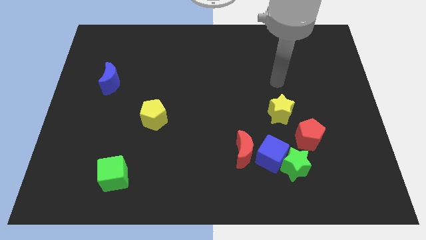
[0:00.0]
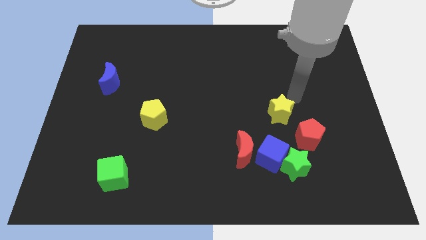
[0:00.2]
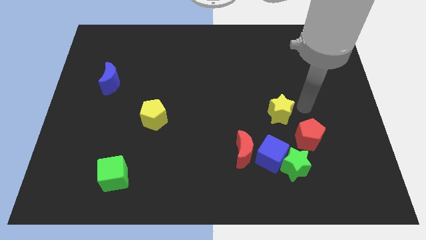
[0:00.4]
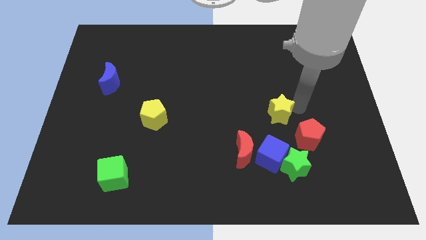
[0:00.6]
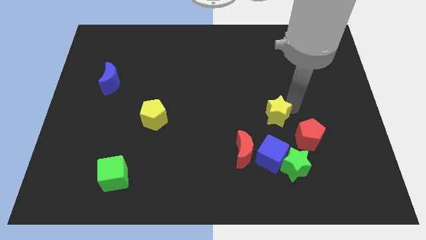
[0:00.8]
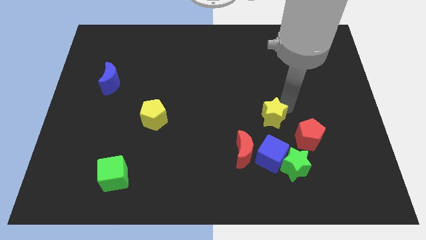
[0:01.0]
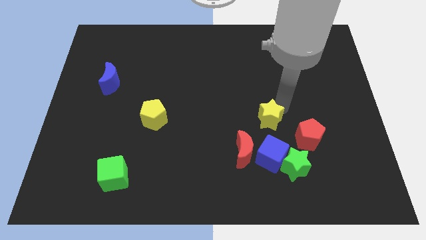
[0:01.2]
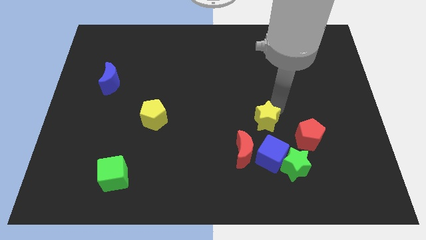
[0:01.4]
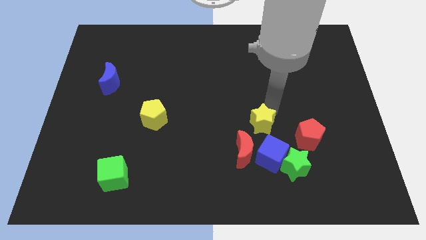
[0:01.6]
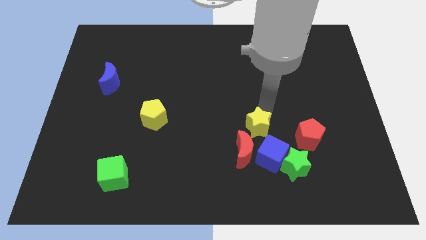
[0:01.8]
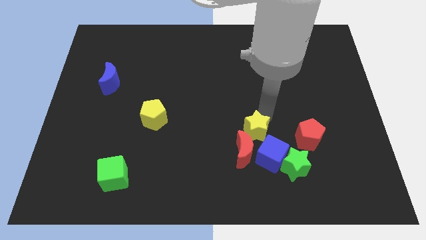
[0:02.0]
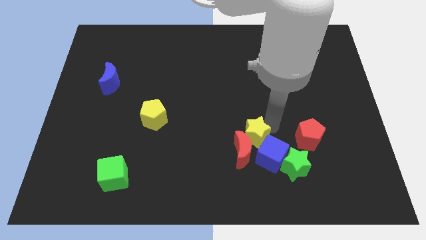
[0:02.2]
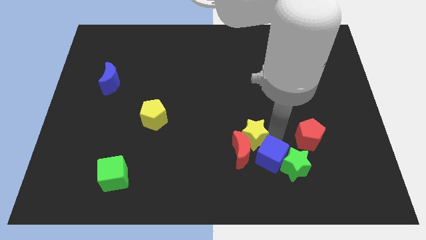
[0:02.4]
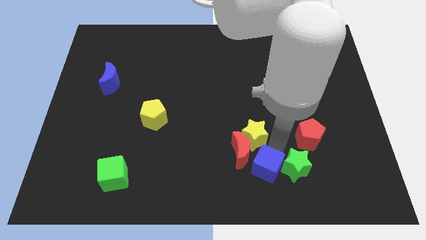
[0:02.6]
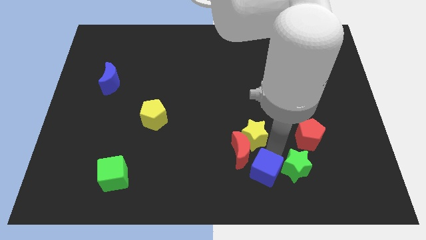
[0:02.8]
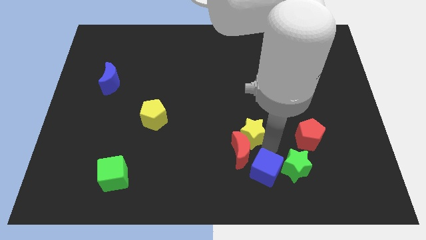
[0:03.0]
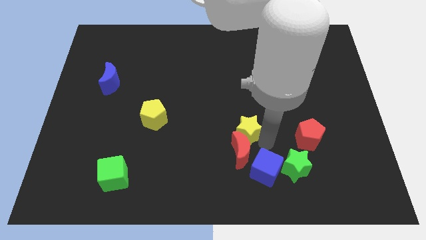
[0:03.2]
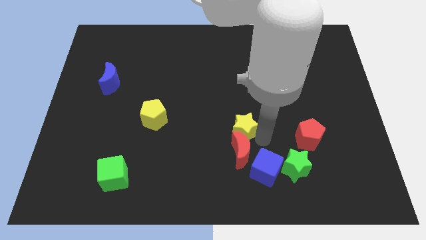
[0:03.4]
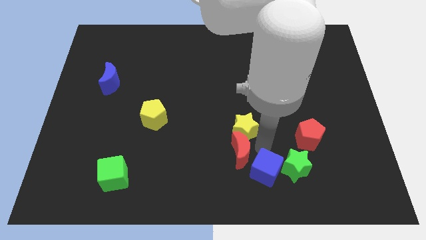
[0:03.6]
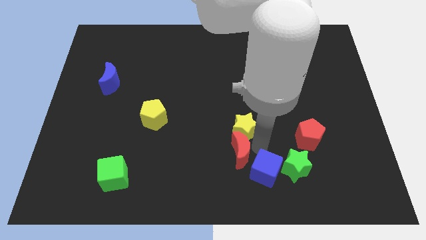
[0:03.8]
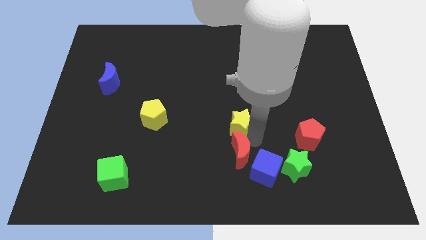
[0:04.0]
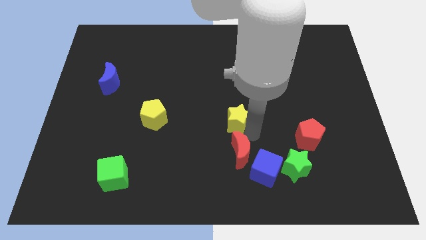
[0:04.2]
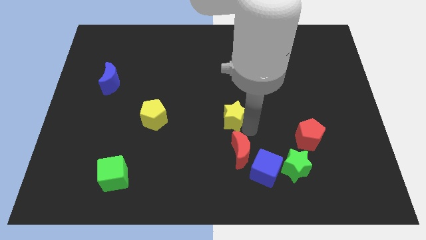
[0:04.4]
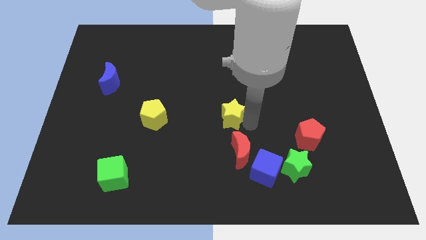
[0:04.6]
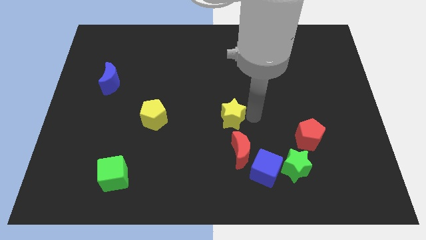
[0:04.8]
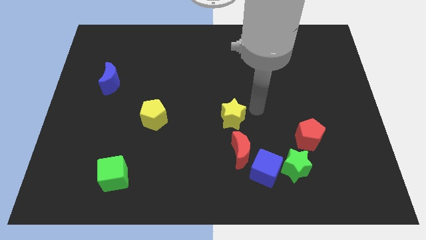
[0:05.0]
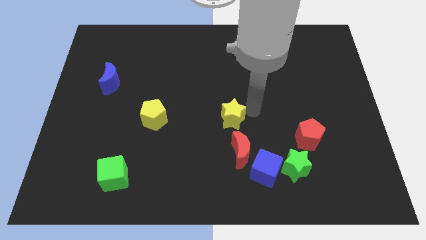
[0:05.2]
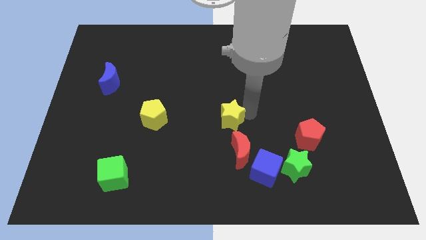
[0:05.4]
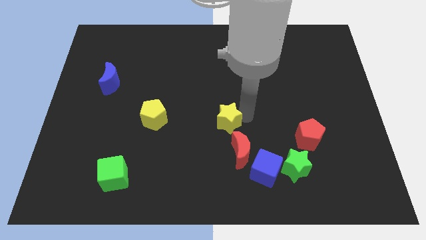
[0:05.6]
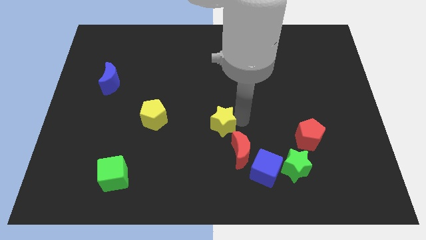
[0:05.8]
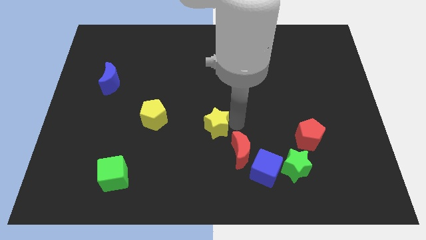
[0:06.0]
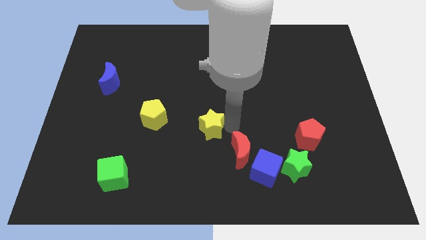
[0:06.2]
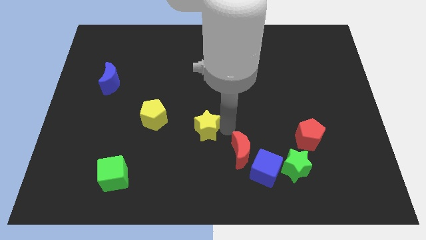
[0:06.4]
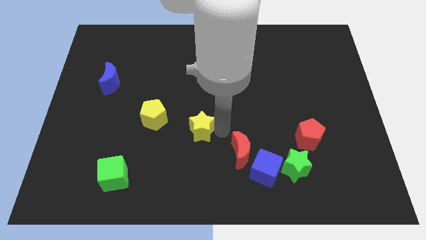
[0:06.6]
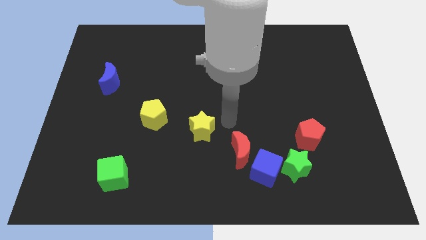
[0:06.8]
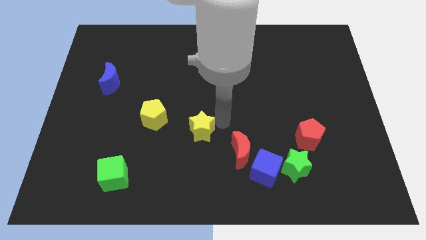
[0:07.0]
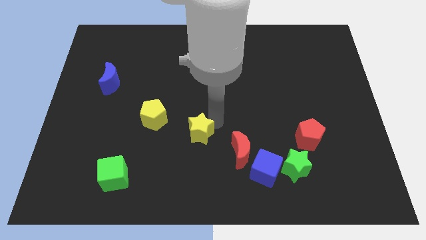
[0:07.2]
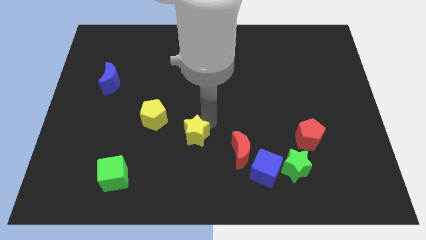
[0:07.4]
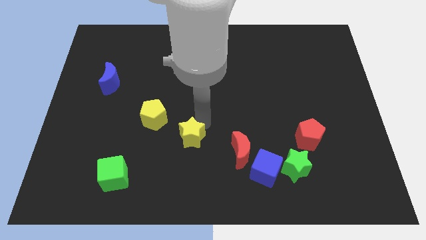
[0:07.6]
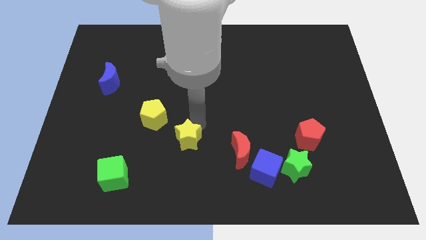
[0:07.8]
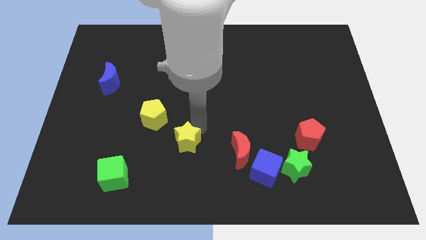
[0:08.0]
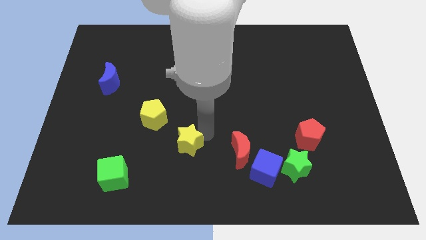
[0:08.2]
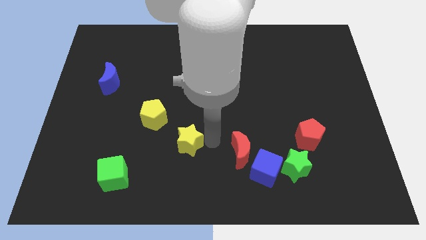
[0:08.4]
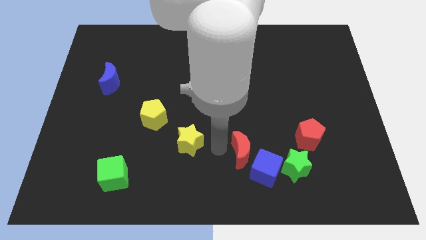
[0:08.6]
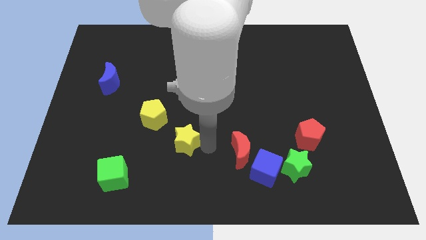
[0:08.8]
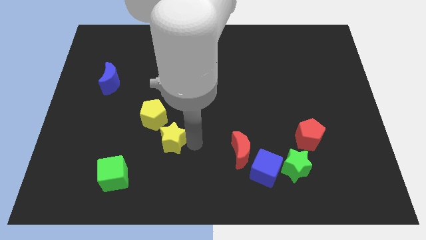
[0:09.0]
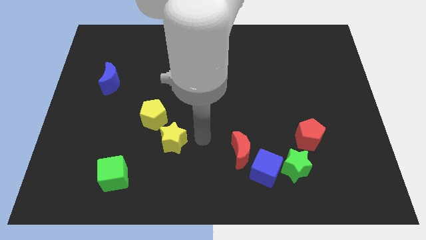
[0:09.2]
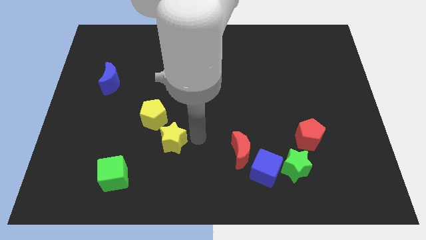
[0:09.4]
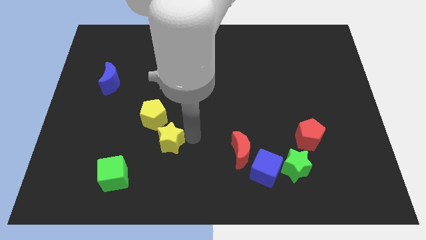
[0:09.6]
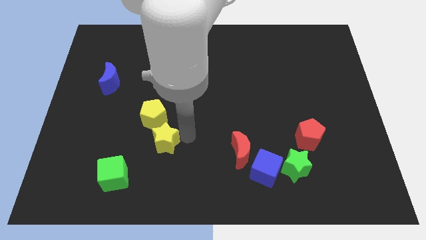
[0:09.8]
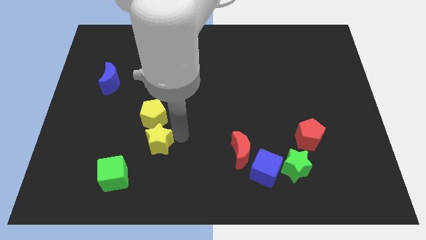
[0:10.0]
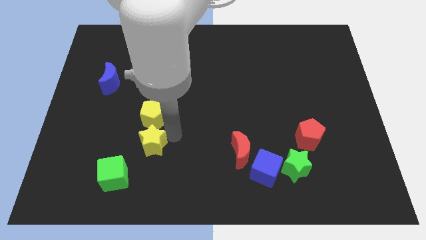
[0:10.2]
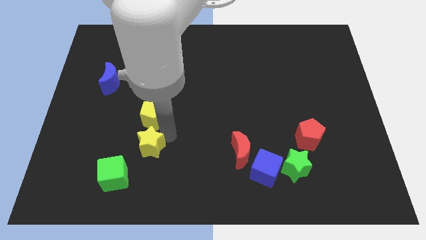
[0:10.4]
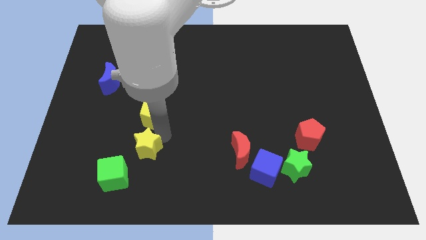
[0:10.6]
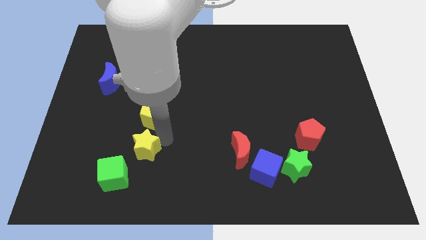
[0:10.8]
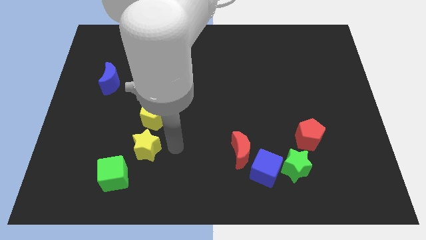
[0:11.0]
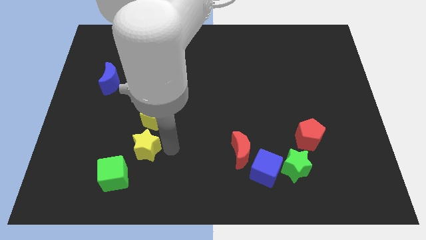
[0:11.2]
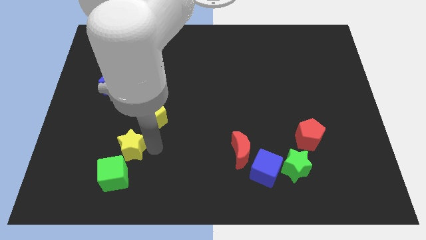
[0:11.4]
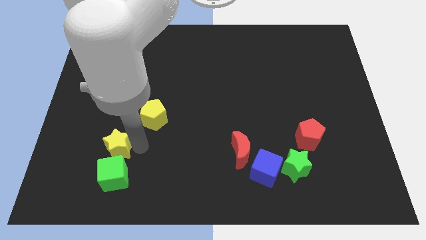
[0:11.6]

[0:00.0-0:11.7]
move the yellow star to the top left side of the green cube
